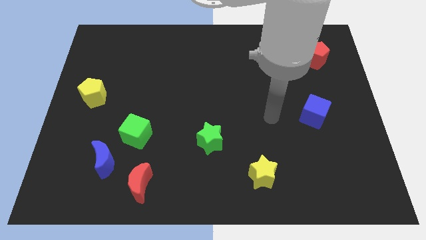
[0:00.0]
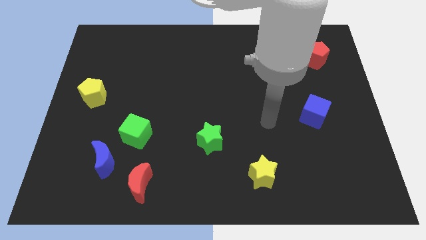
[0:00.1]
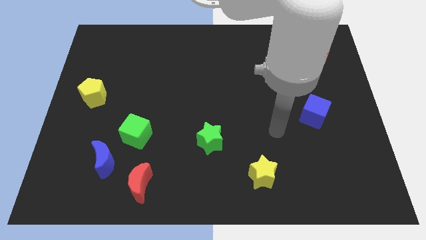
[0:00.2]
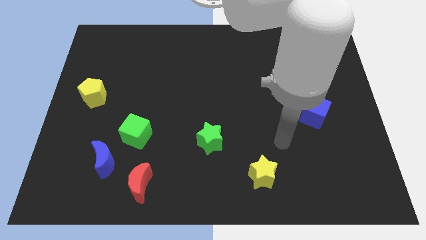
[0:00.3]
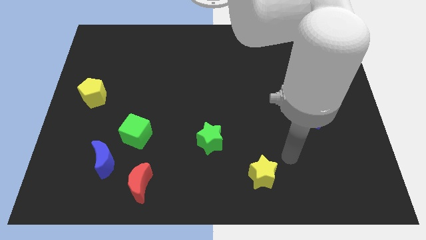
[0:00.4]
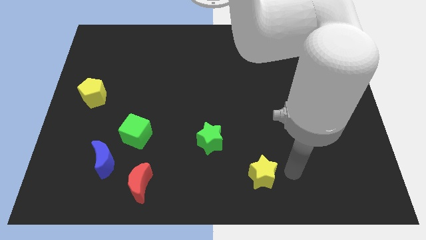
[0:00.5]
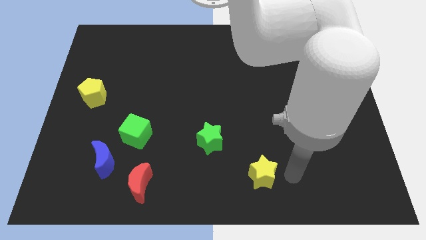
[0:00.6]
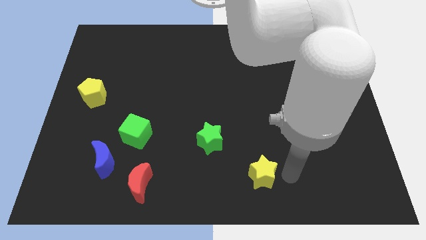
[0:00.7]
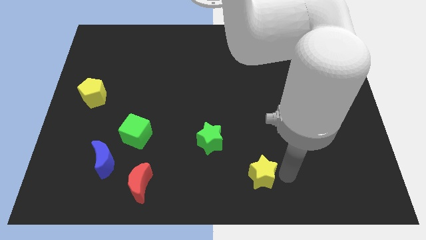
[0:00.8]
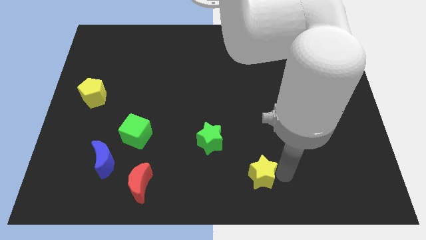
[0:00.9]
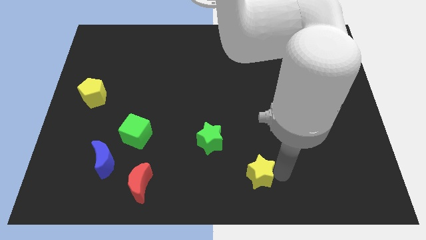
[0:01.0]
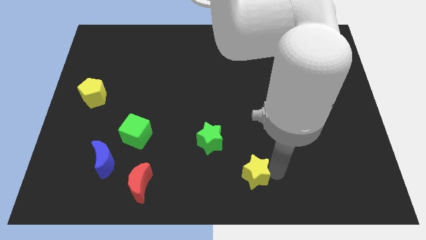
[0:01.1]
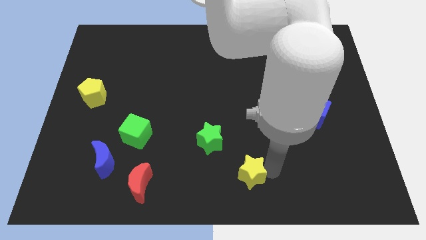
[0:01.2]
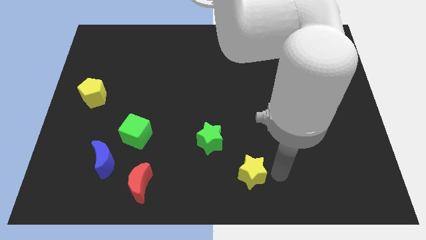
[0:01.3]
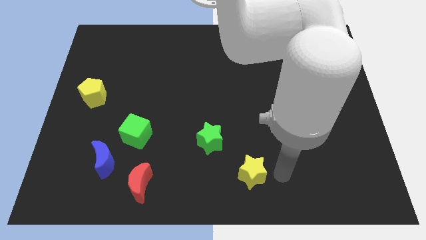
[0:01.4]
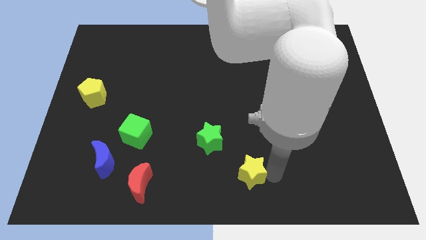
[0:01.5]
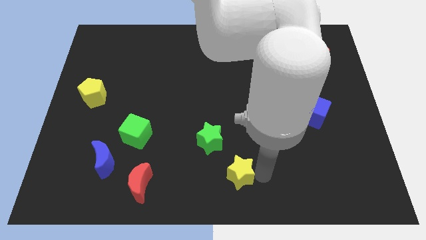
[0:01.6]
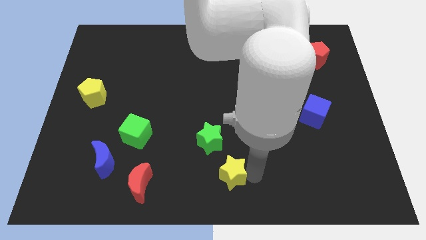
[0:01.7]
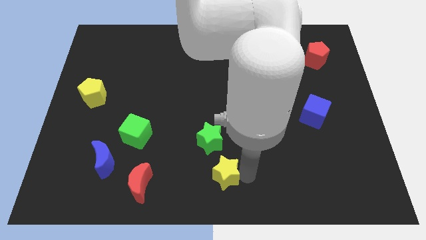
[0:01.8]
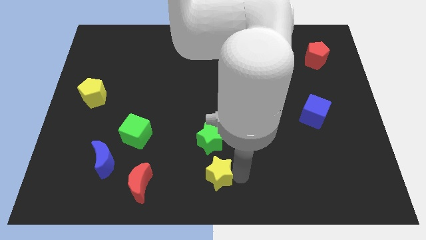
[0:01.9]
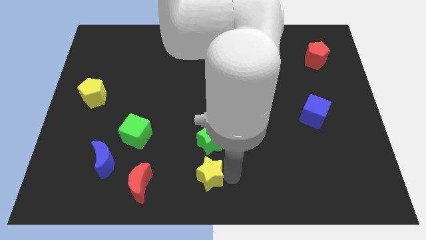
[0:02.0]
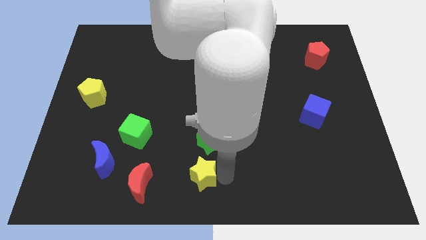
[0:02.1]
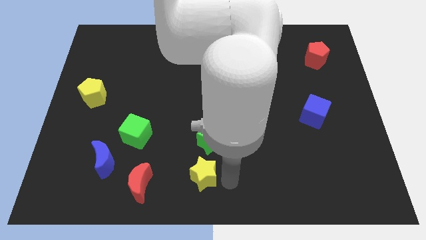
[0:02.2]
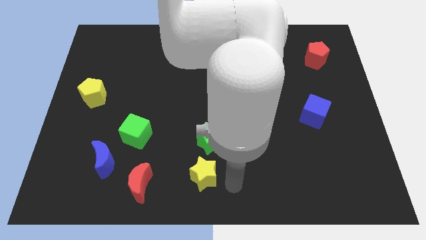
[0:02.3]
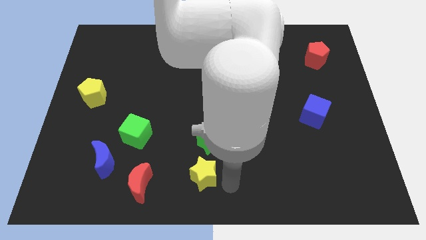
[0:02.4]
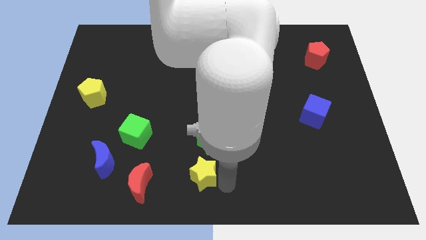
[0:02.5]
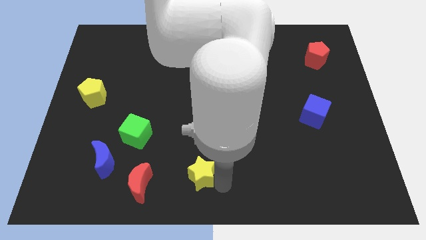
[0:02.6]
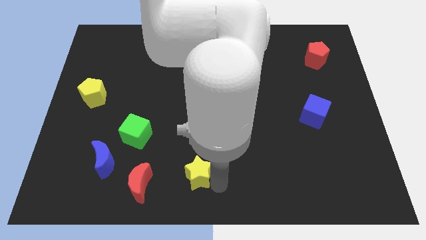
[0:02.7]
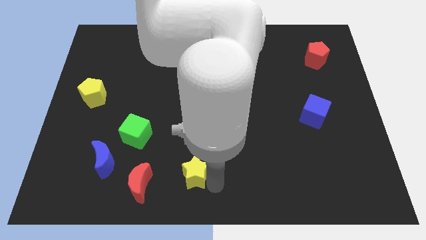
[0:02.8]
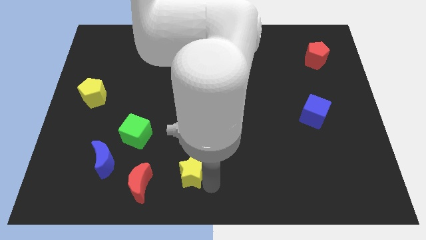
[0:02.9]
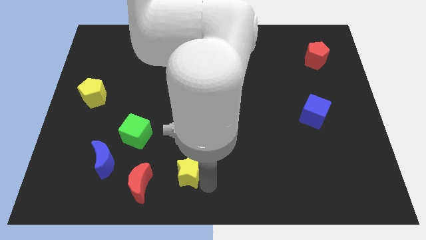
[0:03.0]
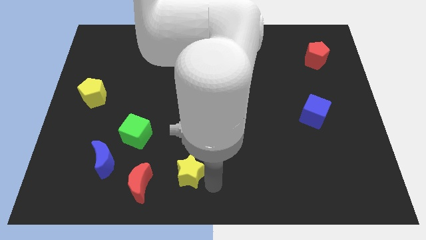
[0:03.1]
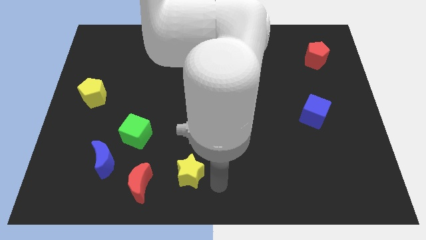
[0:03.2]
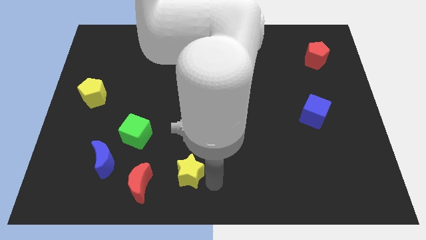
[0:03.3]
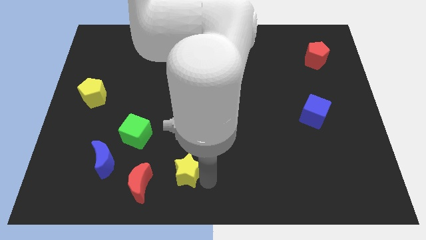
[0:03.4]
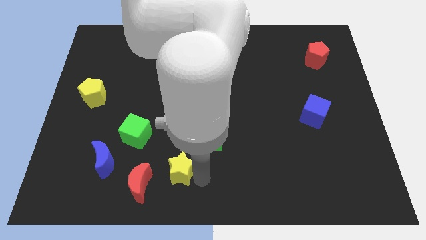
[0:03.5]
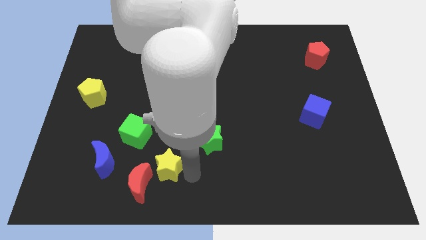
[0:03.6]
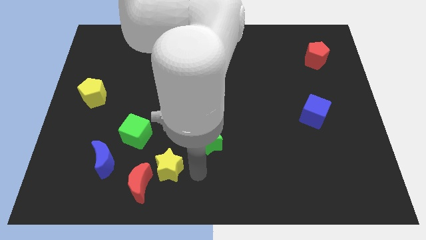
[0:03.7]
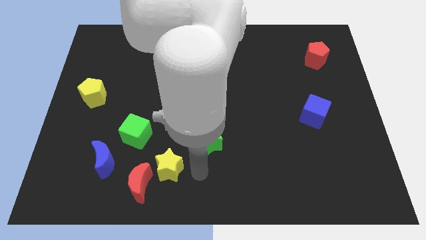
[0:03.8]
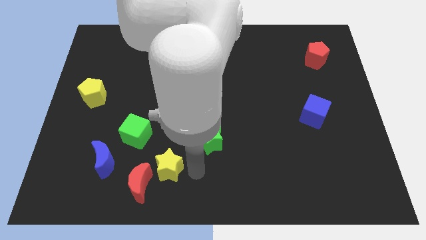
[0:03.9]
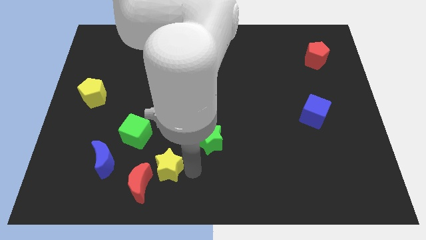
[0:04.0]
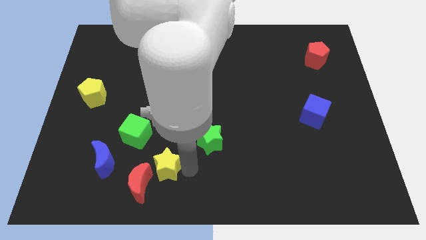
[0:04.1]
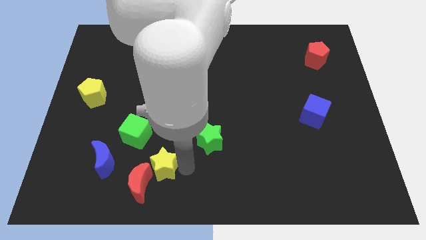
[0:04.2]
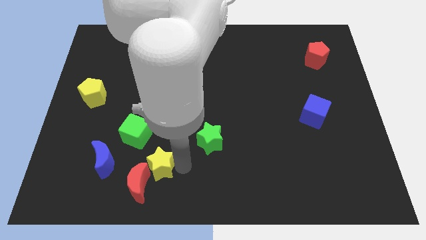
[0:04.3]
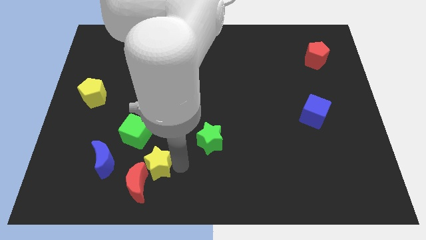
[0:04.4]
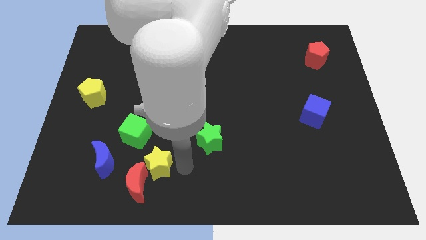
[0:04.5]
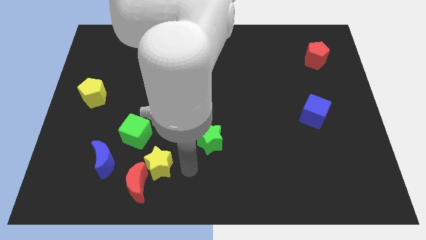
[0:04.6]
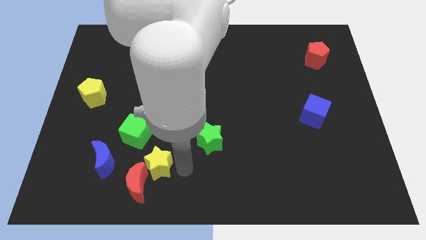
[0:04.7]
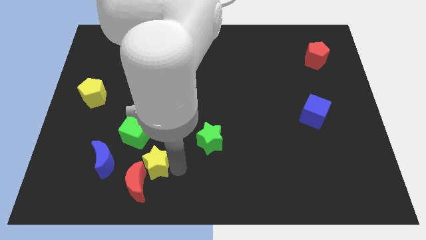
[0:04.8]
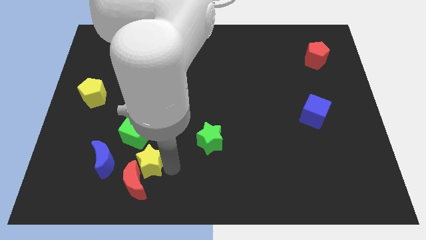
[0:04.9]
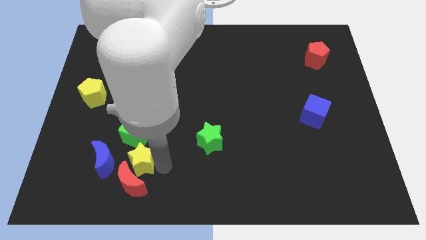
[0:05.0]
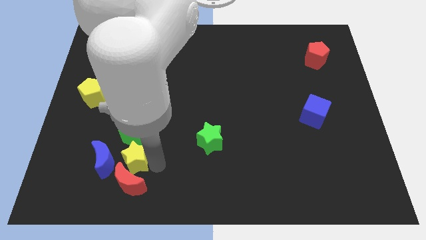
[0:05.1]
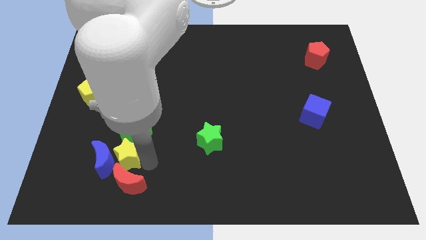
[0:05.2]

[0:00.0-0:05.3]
slide the yellow star close to the blue moon

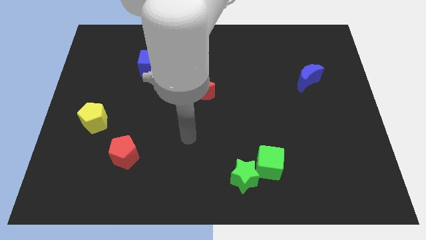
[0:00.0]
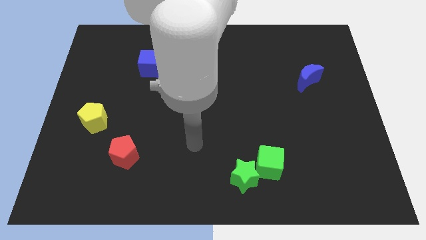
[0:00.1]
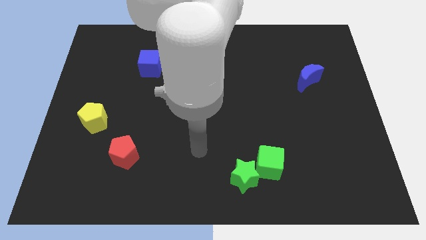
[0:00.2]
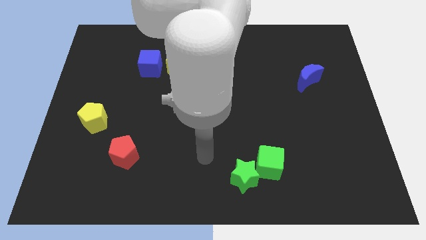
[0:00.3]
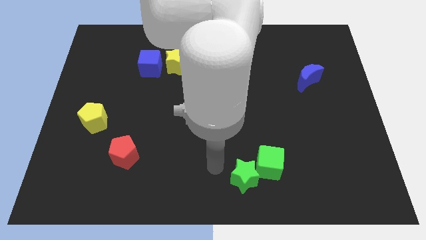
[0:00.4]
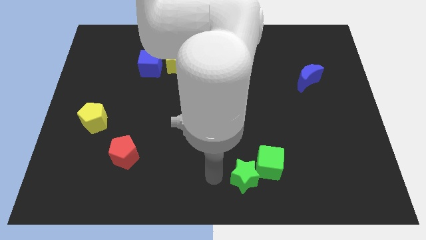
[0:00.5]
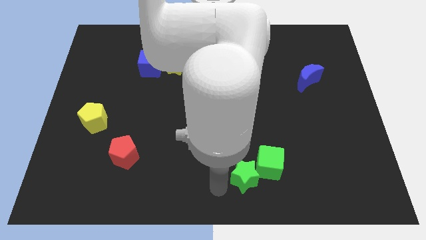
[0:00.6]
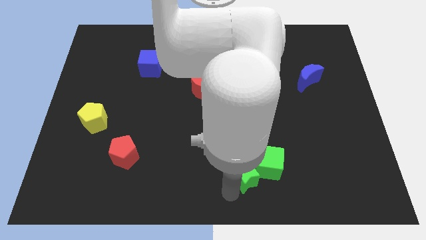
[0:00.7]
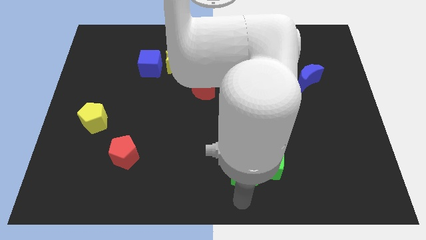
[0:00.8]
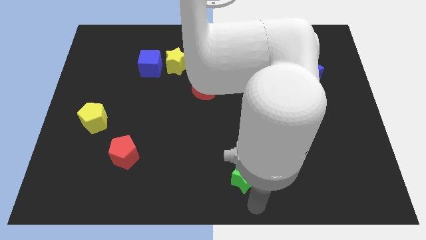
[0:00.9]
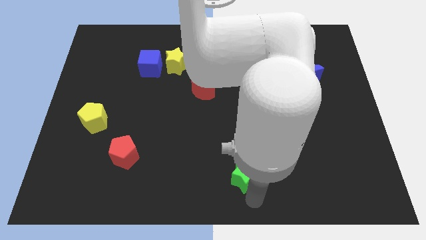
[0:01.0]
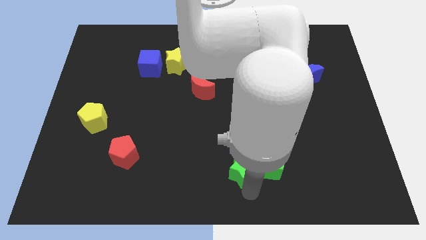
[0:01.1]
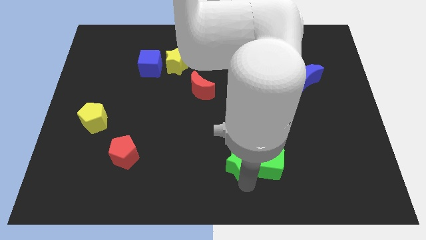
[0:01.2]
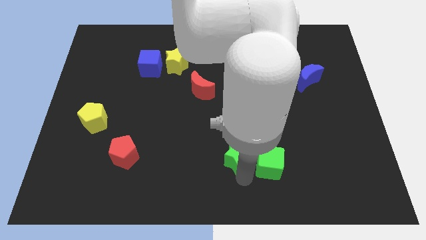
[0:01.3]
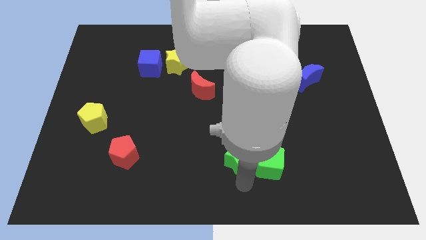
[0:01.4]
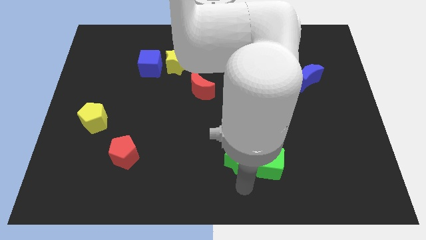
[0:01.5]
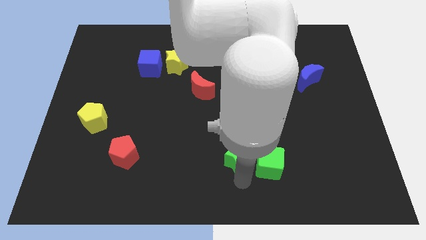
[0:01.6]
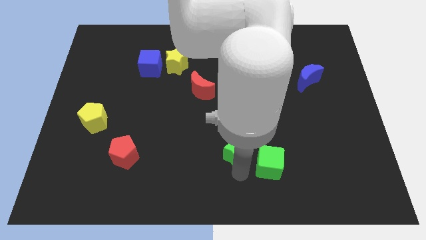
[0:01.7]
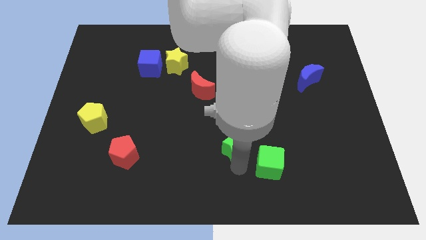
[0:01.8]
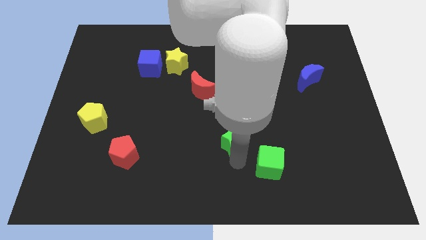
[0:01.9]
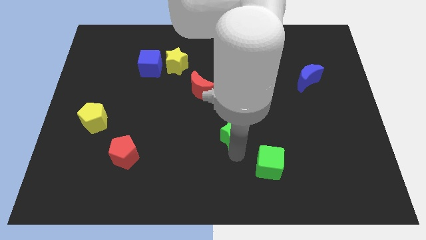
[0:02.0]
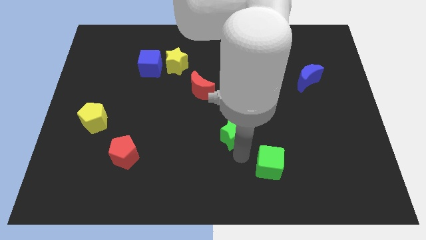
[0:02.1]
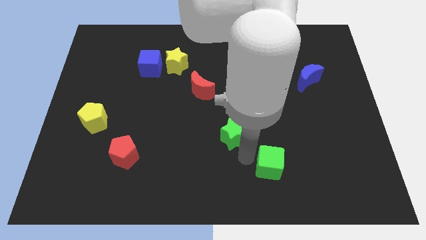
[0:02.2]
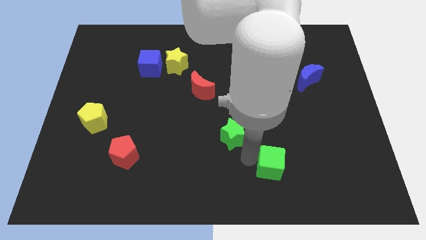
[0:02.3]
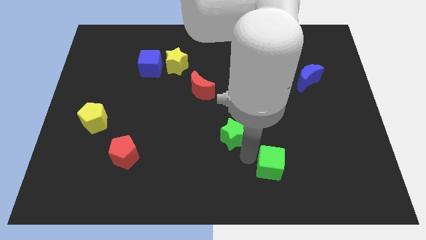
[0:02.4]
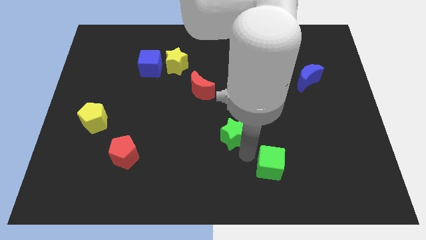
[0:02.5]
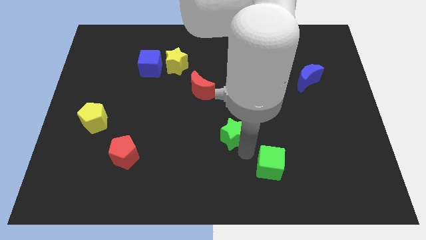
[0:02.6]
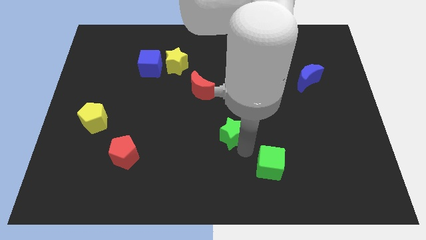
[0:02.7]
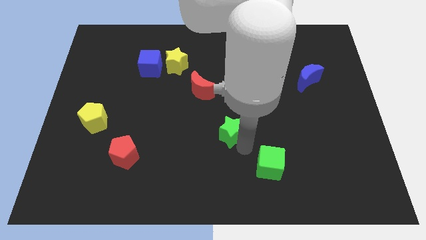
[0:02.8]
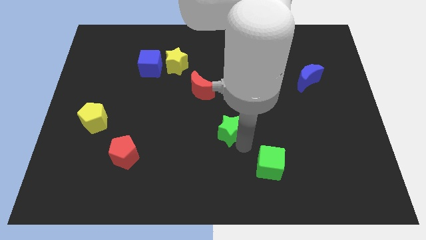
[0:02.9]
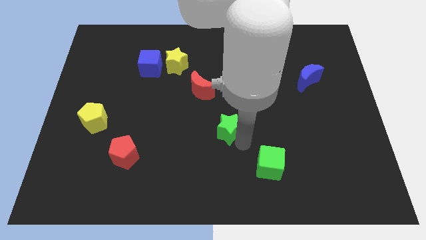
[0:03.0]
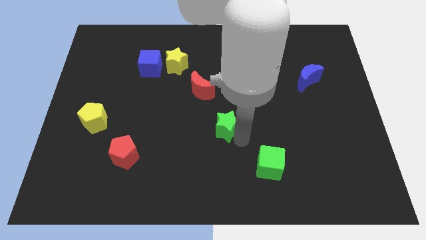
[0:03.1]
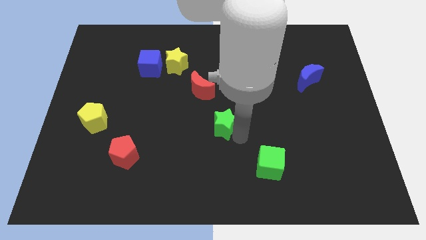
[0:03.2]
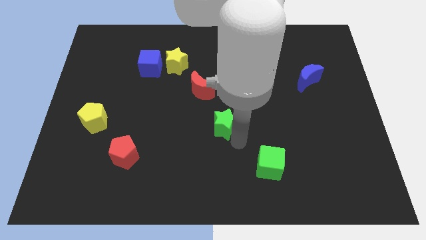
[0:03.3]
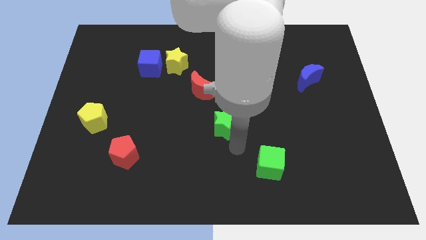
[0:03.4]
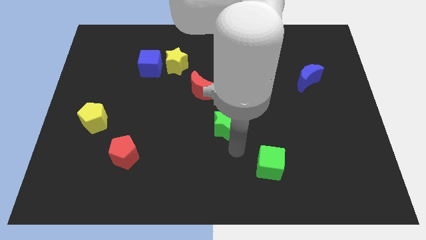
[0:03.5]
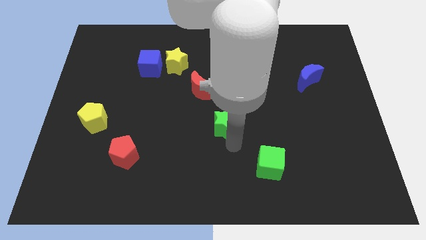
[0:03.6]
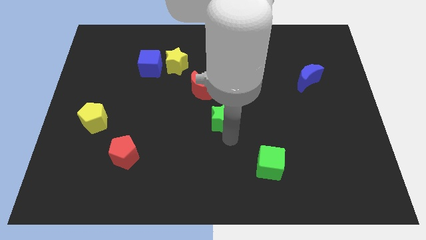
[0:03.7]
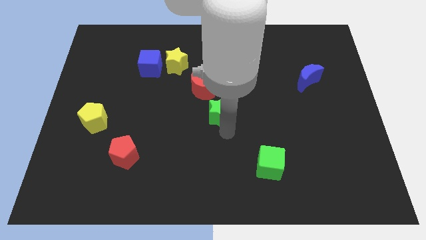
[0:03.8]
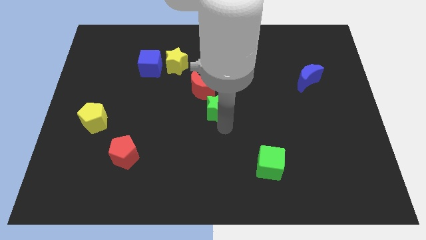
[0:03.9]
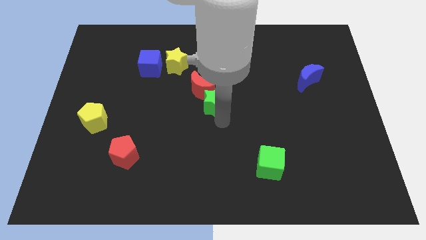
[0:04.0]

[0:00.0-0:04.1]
slide the green star towards the red moon
